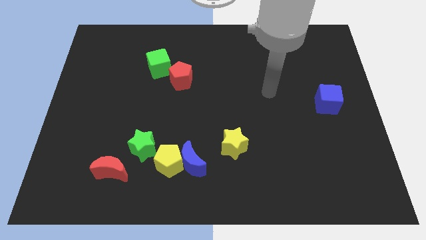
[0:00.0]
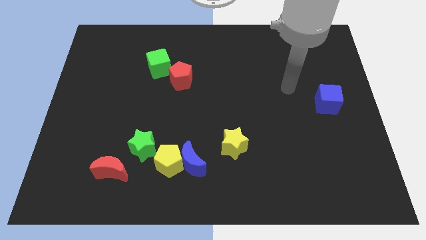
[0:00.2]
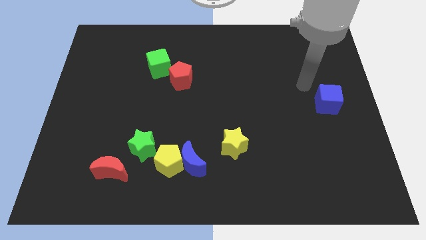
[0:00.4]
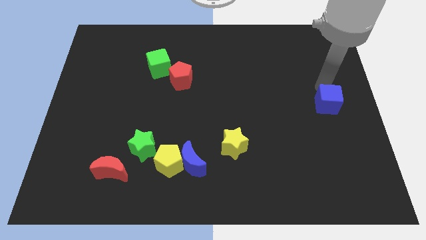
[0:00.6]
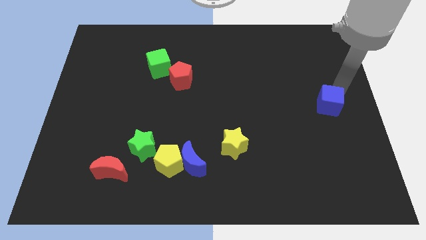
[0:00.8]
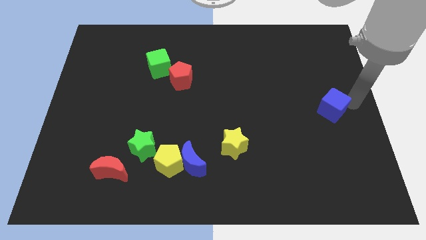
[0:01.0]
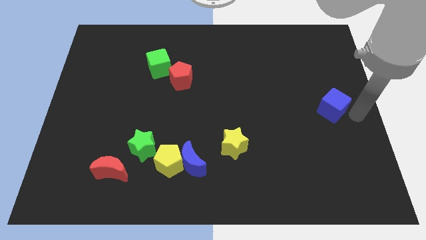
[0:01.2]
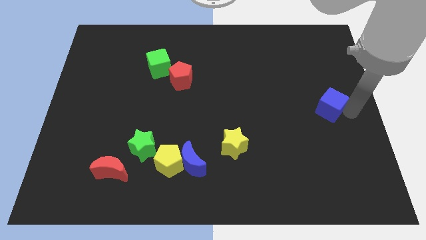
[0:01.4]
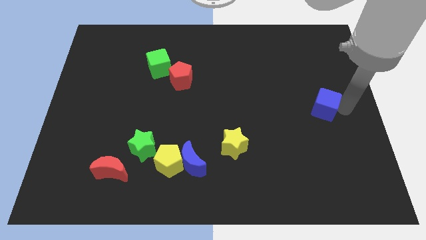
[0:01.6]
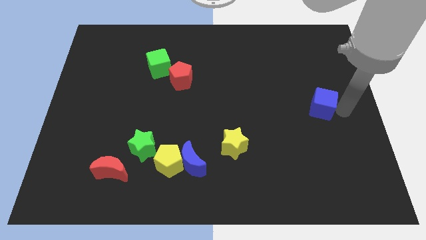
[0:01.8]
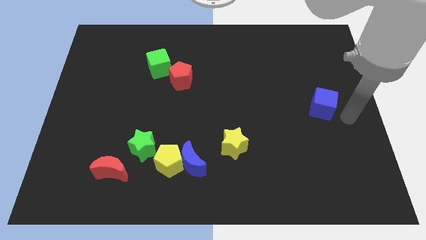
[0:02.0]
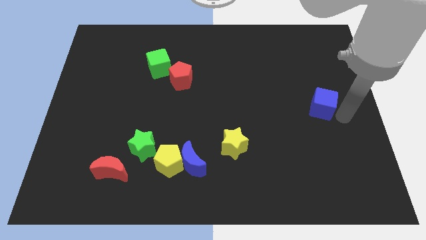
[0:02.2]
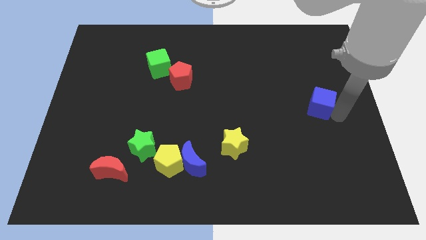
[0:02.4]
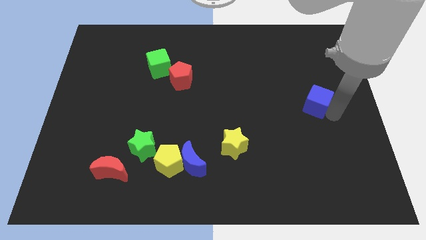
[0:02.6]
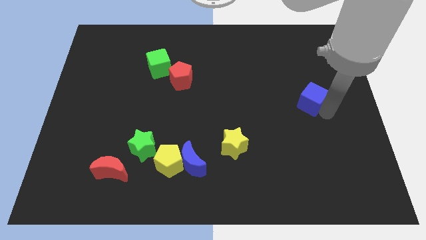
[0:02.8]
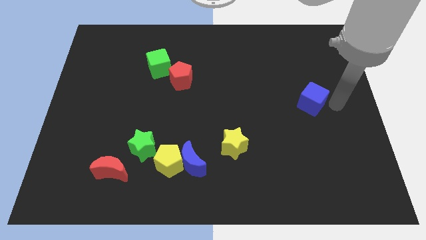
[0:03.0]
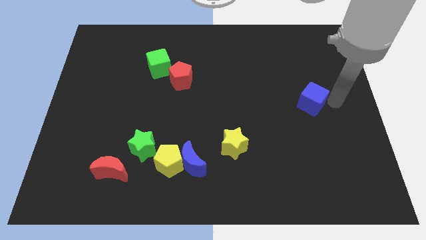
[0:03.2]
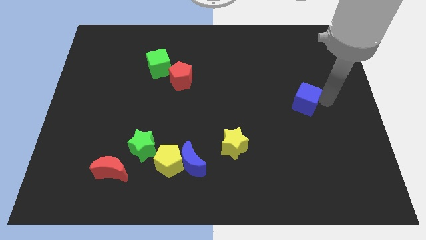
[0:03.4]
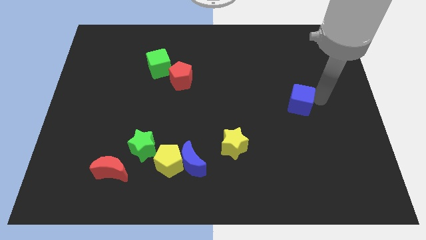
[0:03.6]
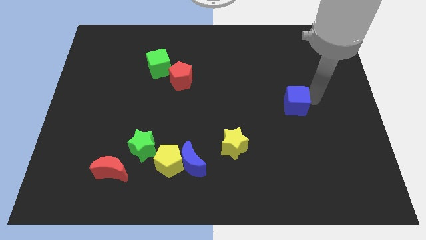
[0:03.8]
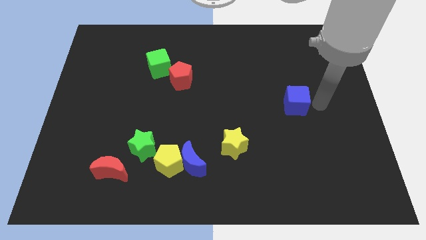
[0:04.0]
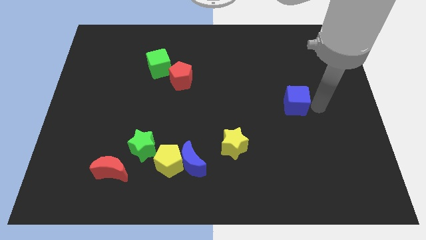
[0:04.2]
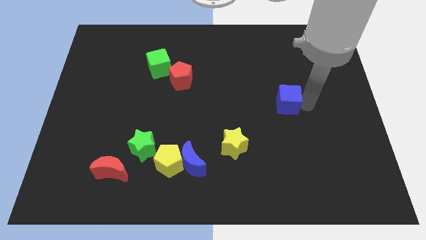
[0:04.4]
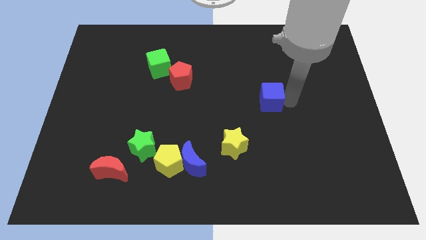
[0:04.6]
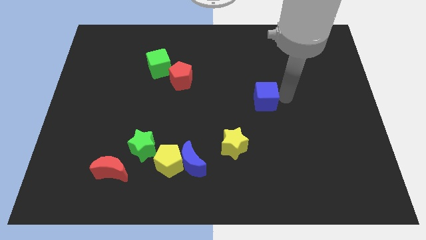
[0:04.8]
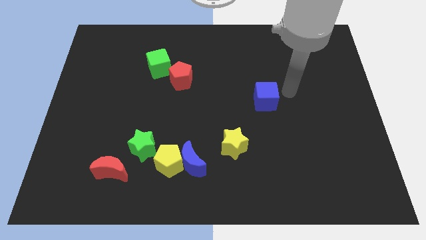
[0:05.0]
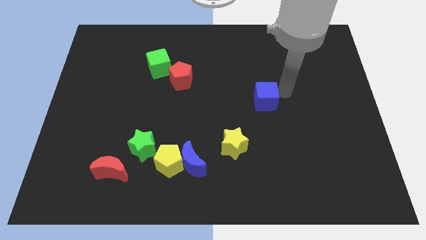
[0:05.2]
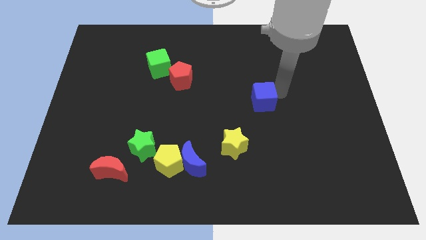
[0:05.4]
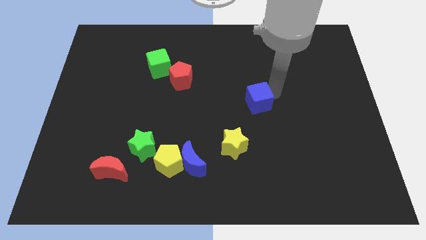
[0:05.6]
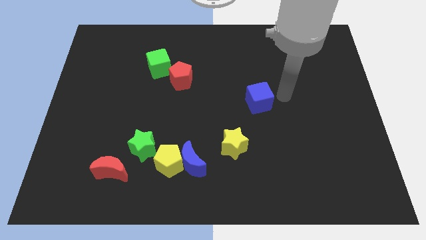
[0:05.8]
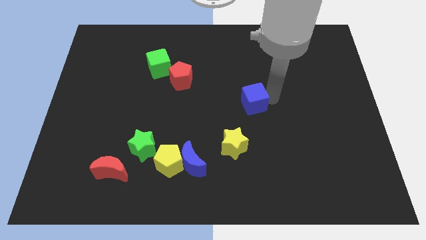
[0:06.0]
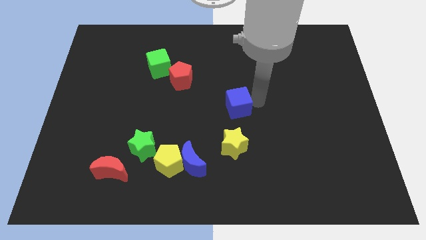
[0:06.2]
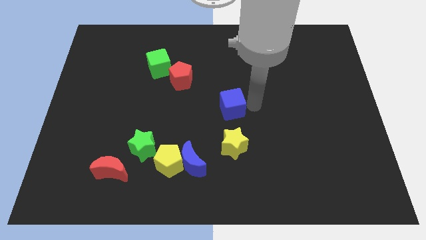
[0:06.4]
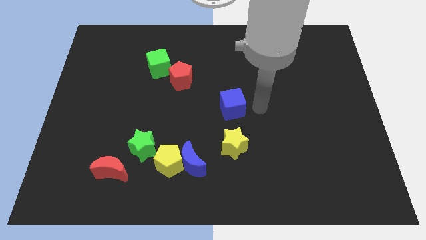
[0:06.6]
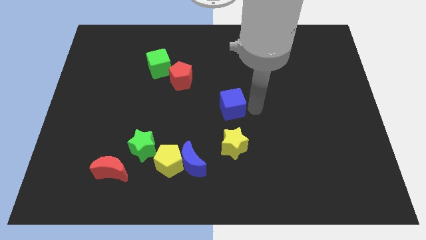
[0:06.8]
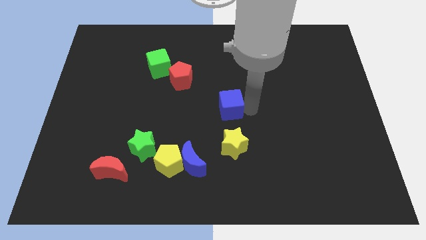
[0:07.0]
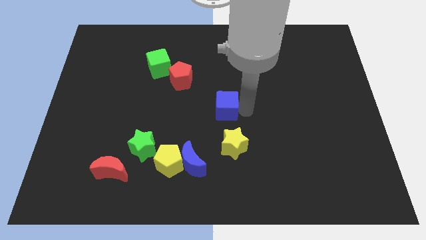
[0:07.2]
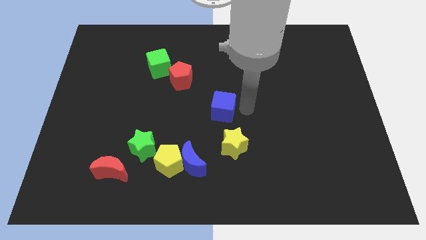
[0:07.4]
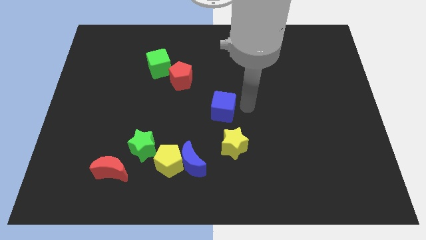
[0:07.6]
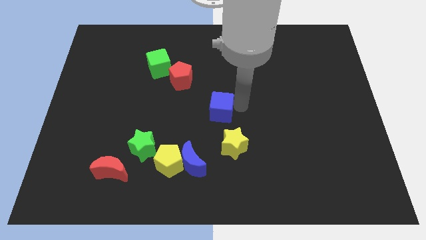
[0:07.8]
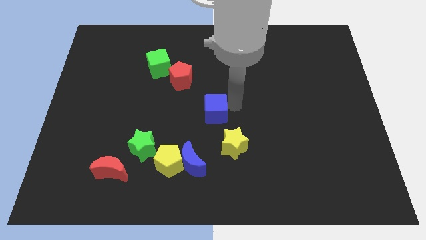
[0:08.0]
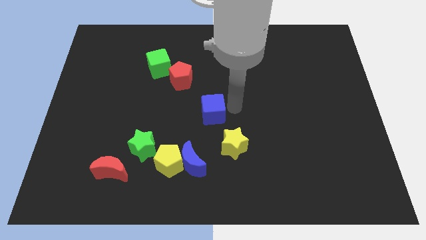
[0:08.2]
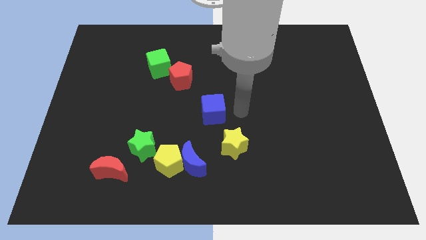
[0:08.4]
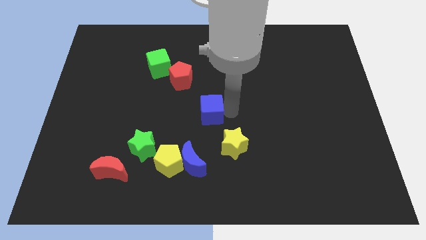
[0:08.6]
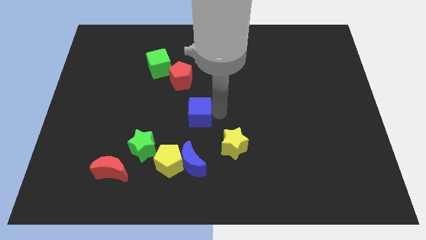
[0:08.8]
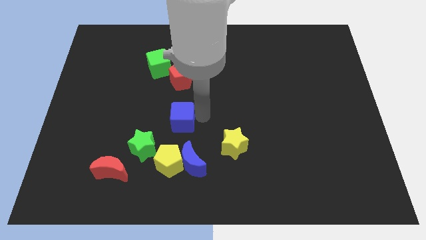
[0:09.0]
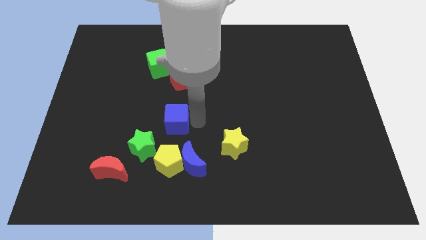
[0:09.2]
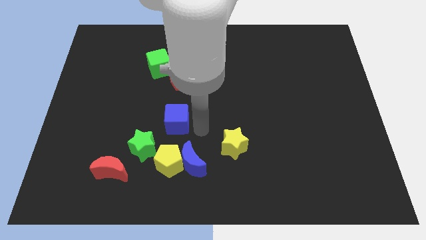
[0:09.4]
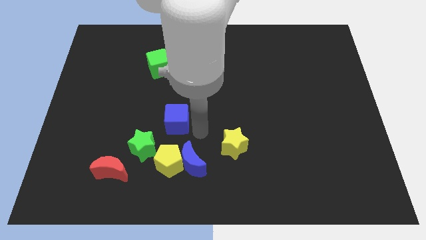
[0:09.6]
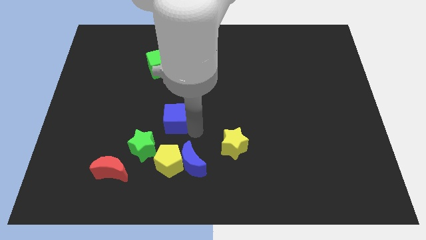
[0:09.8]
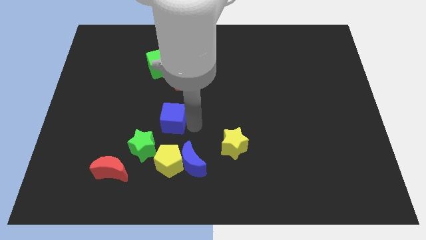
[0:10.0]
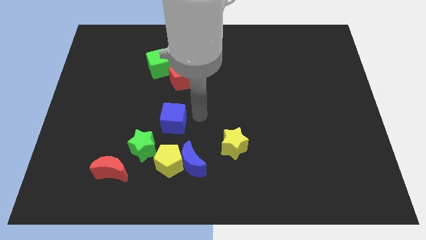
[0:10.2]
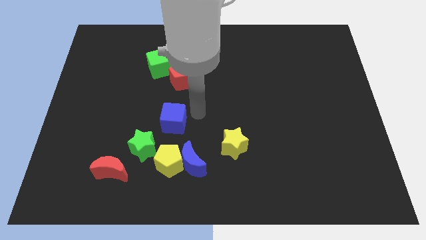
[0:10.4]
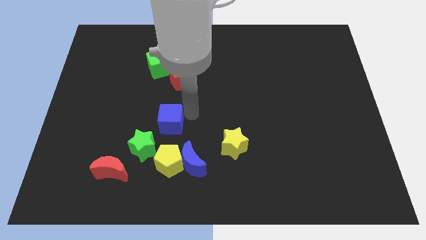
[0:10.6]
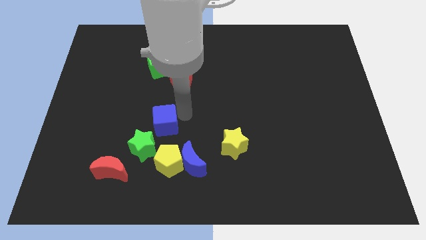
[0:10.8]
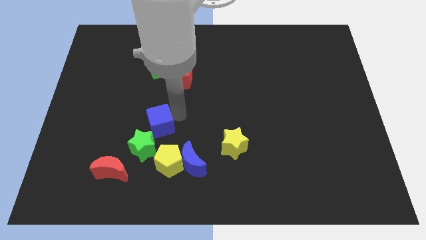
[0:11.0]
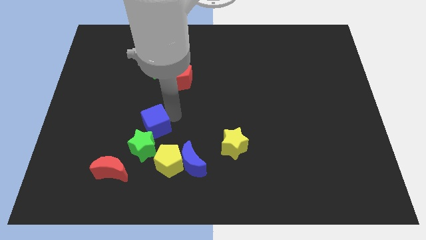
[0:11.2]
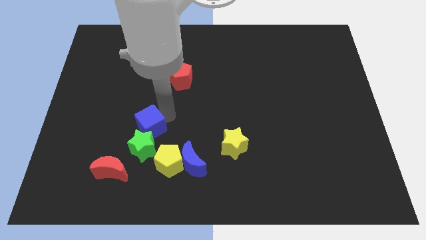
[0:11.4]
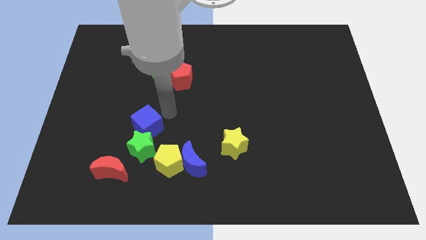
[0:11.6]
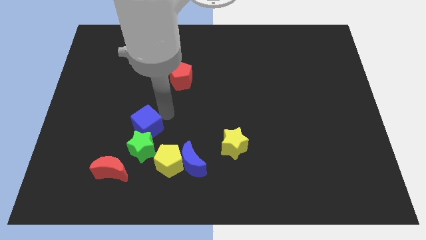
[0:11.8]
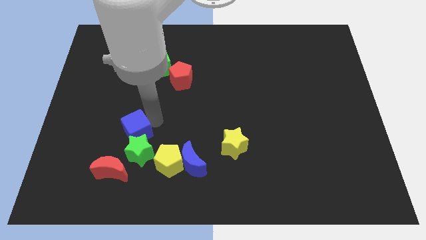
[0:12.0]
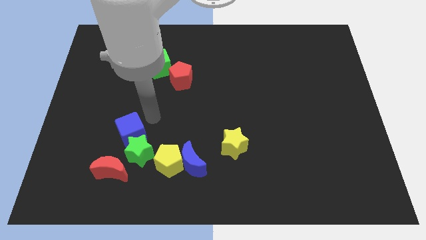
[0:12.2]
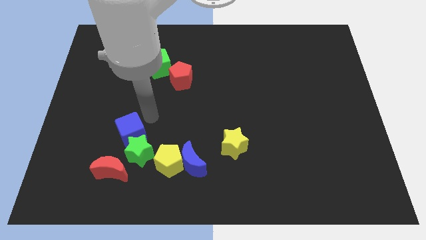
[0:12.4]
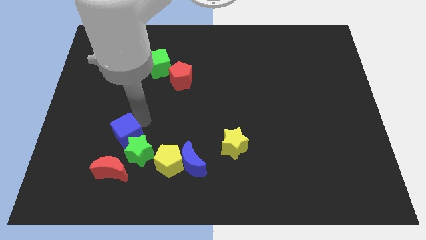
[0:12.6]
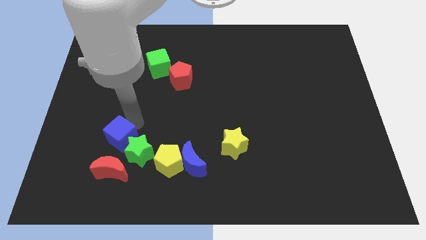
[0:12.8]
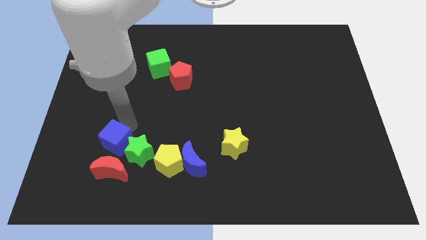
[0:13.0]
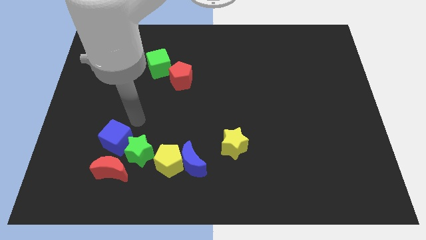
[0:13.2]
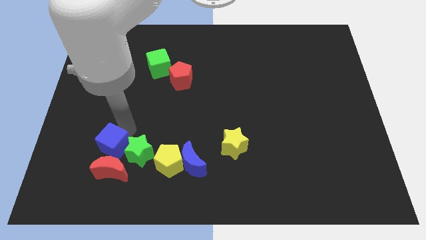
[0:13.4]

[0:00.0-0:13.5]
move the blue cube to the left side of the yellow pentagon
